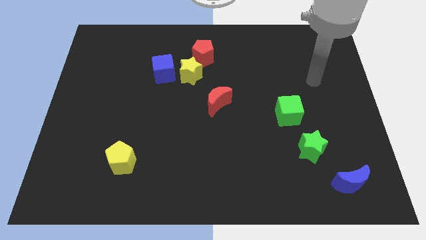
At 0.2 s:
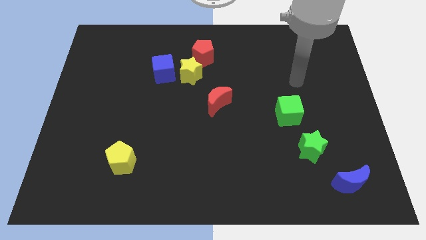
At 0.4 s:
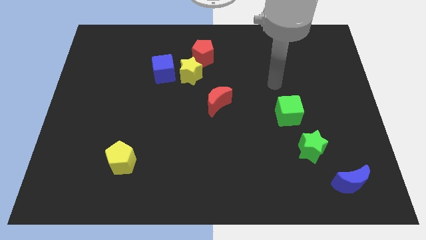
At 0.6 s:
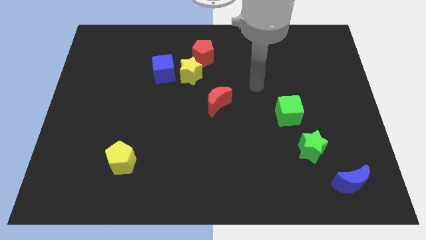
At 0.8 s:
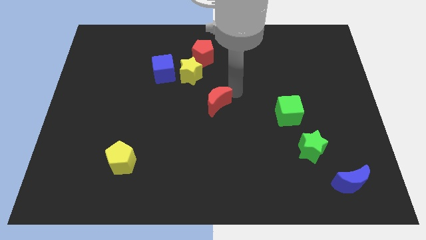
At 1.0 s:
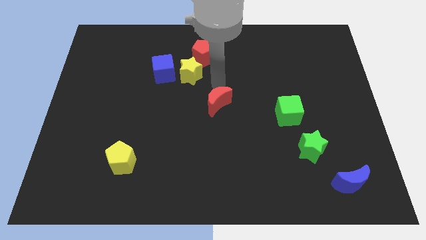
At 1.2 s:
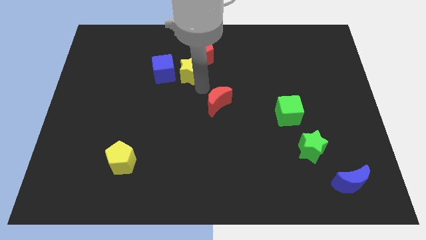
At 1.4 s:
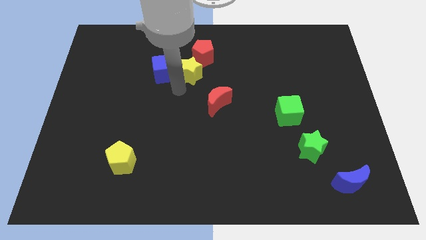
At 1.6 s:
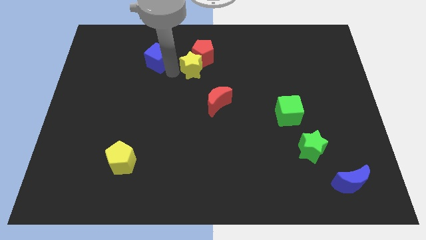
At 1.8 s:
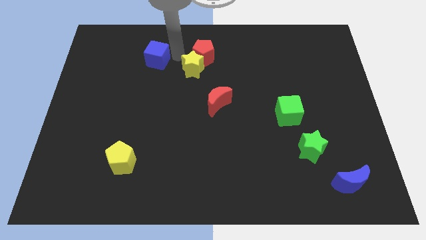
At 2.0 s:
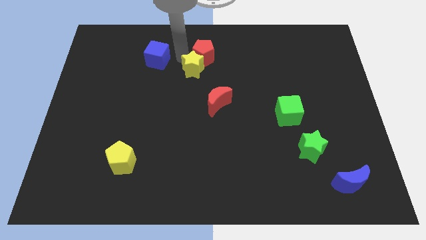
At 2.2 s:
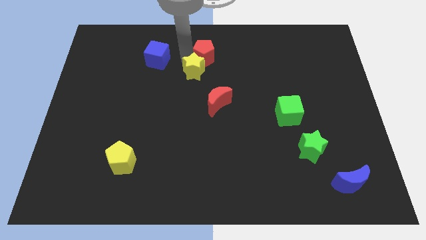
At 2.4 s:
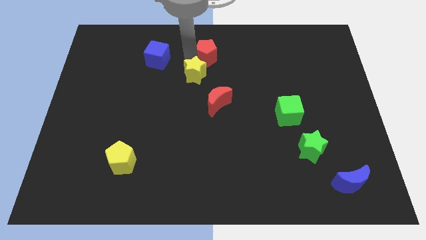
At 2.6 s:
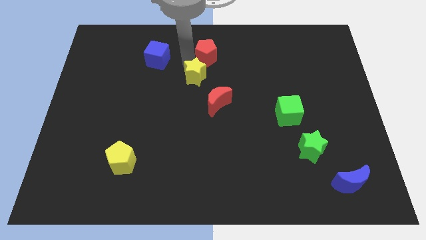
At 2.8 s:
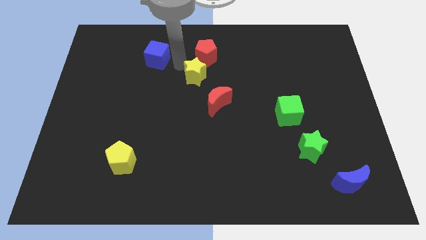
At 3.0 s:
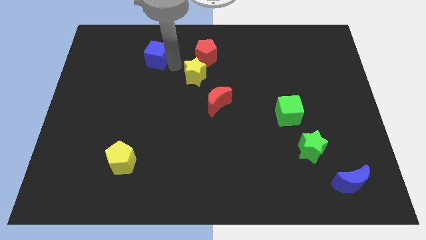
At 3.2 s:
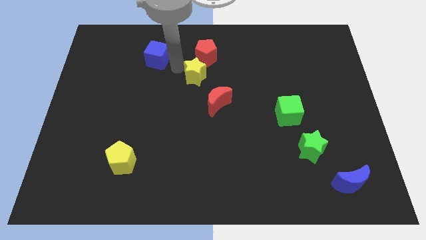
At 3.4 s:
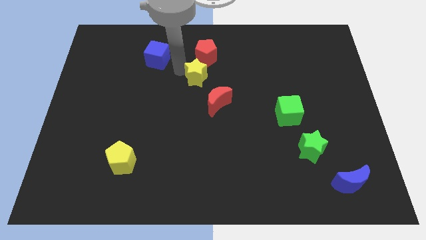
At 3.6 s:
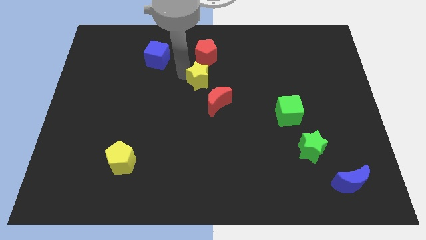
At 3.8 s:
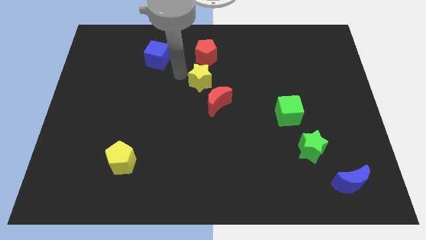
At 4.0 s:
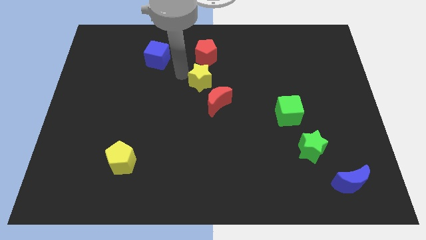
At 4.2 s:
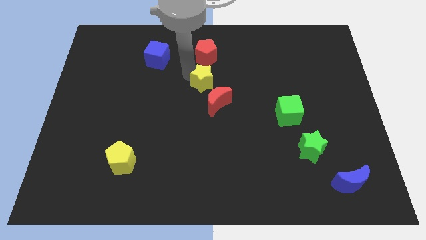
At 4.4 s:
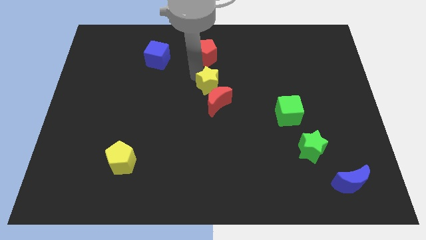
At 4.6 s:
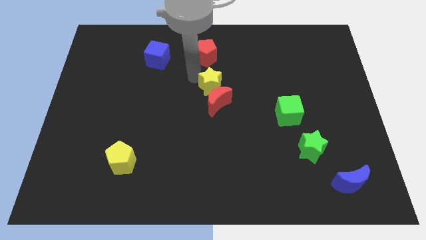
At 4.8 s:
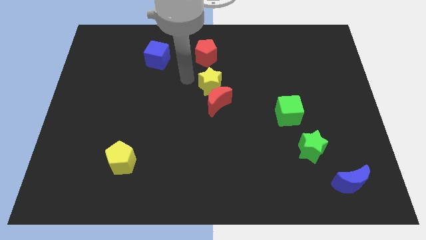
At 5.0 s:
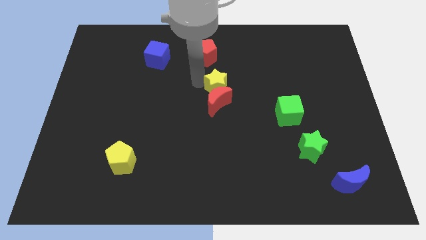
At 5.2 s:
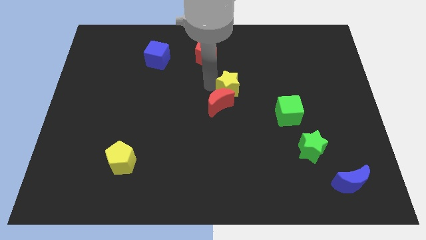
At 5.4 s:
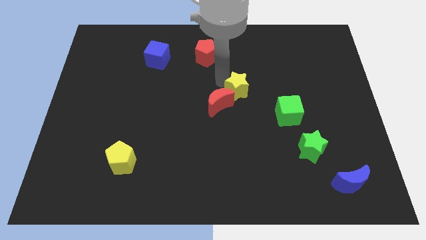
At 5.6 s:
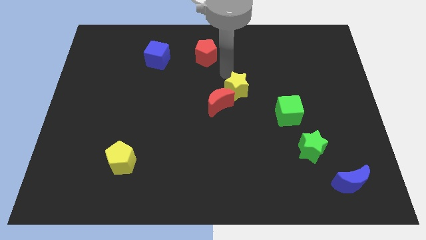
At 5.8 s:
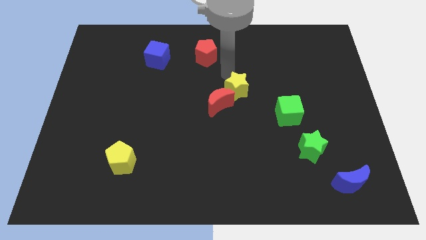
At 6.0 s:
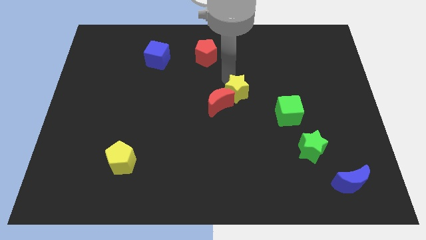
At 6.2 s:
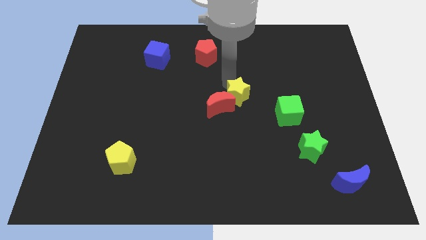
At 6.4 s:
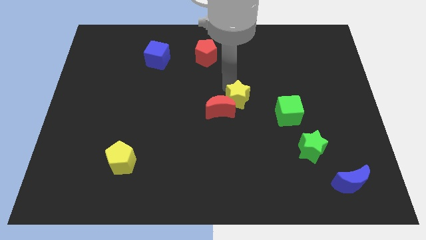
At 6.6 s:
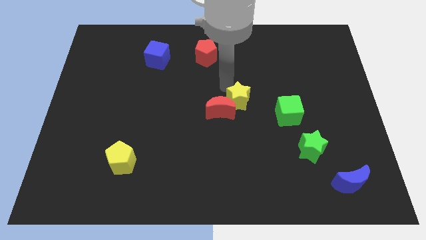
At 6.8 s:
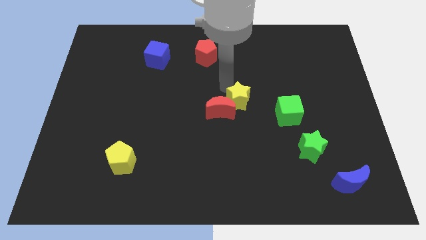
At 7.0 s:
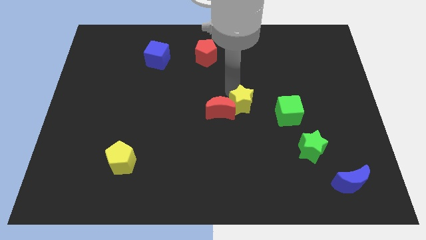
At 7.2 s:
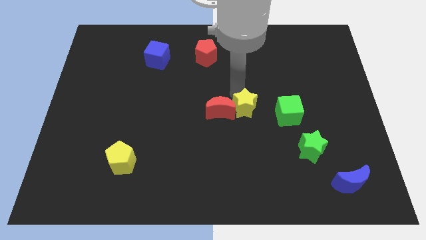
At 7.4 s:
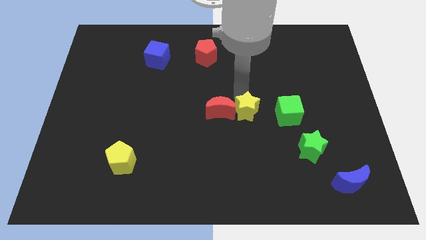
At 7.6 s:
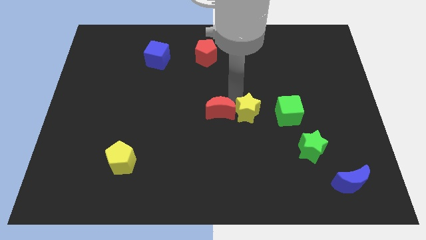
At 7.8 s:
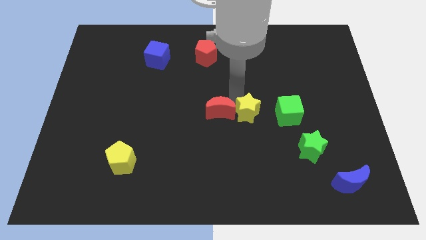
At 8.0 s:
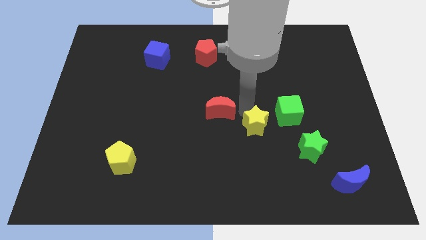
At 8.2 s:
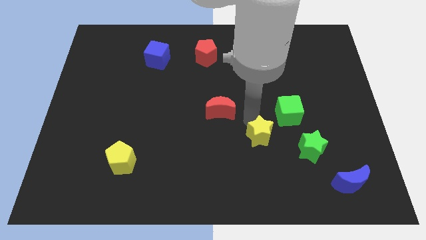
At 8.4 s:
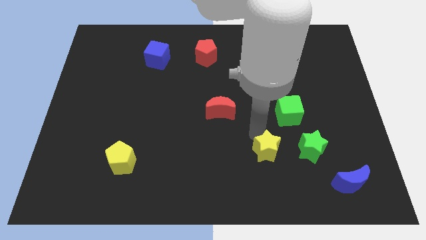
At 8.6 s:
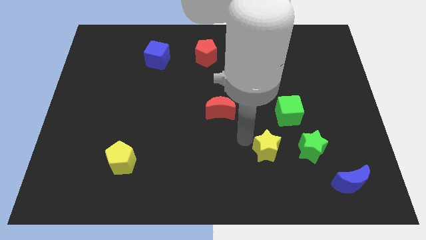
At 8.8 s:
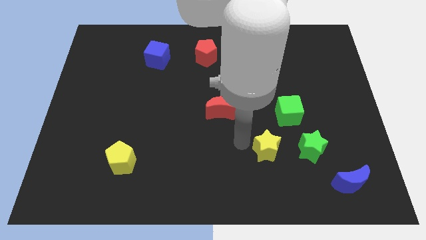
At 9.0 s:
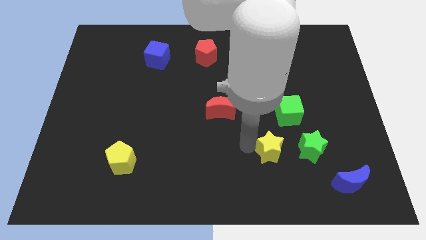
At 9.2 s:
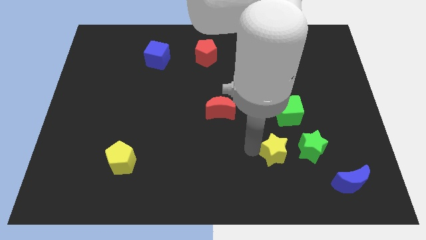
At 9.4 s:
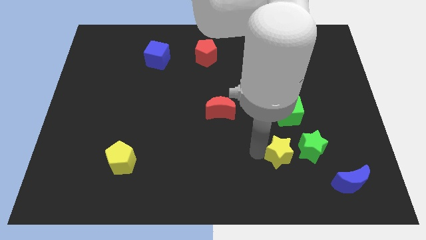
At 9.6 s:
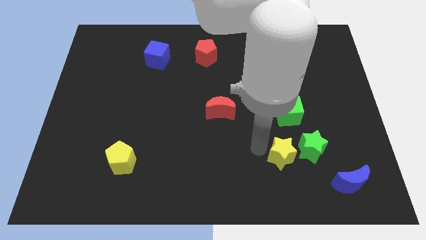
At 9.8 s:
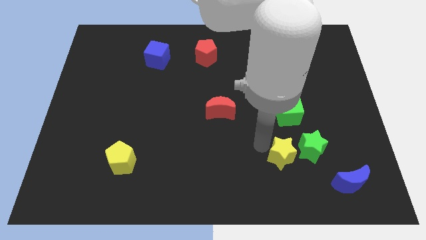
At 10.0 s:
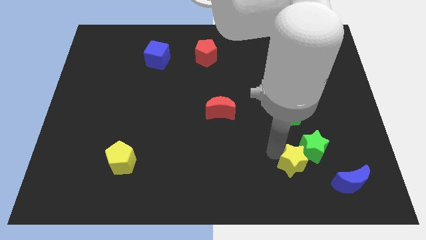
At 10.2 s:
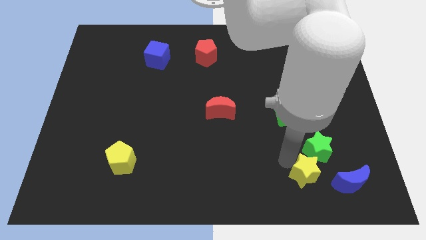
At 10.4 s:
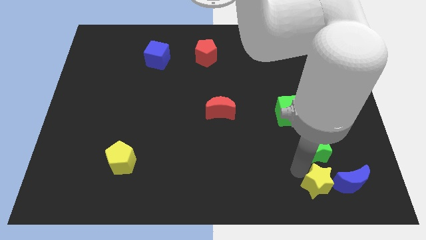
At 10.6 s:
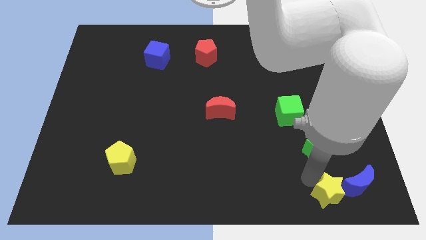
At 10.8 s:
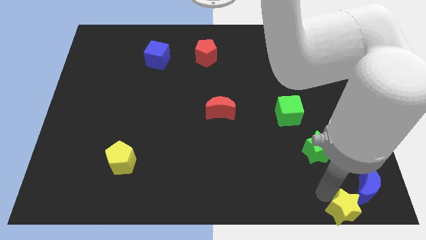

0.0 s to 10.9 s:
move the yellow star to the bottom right of the board

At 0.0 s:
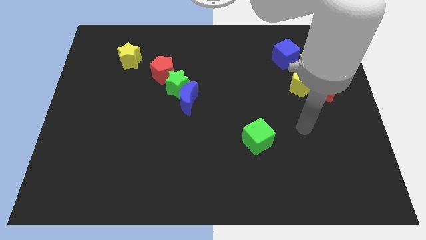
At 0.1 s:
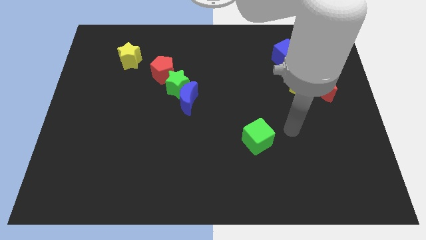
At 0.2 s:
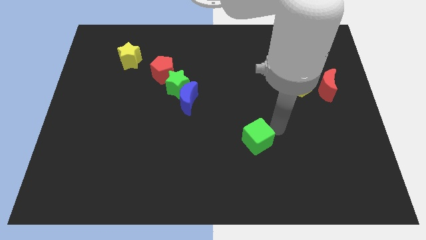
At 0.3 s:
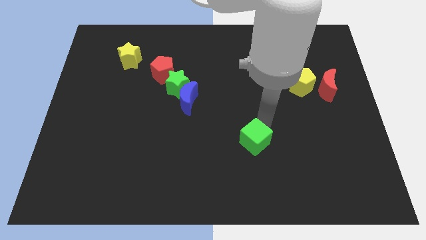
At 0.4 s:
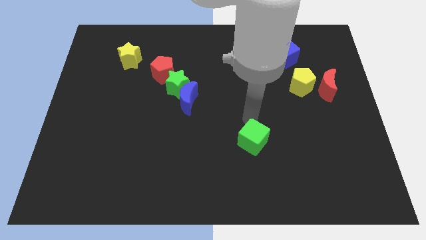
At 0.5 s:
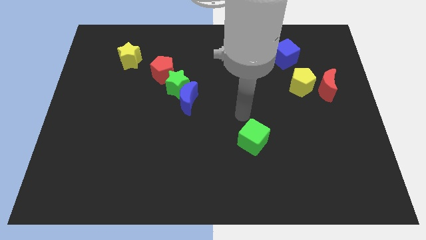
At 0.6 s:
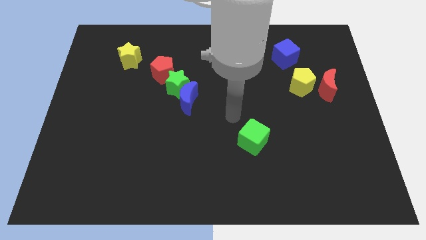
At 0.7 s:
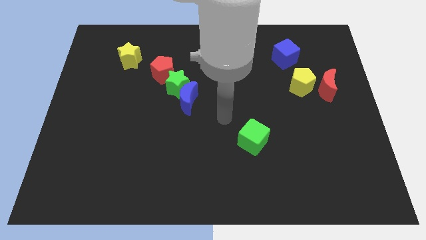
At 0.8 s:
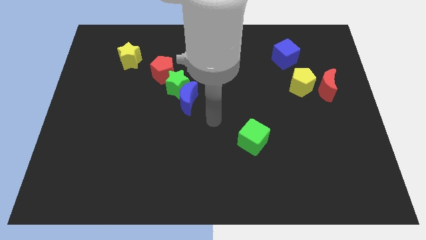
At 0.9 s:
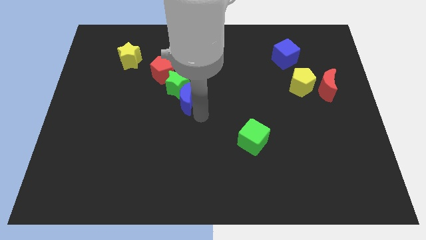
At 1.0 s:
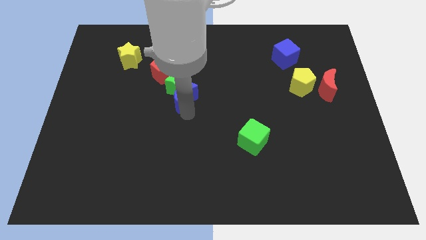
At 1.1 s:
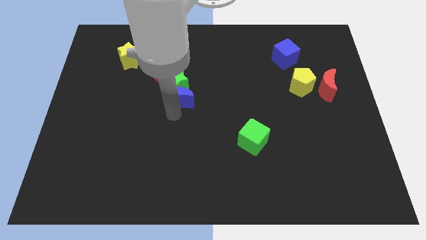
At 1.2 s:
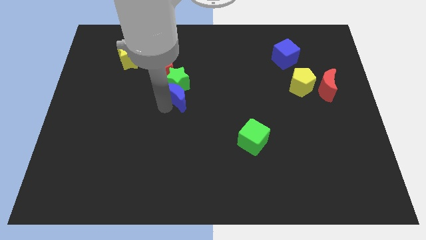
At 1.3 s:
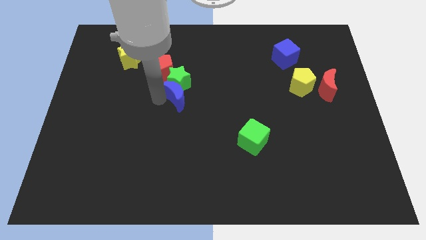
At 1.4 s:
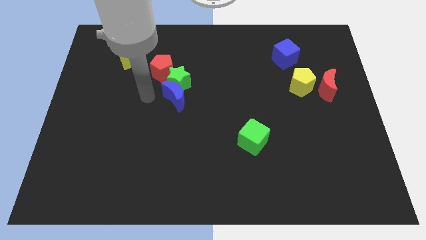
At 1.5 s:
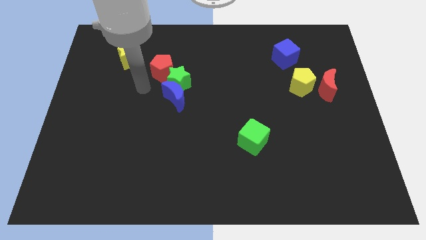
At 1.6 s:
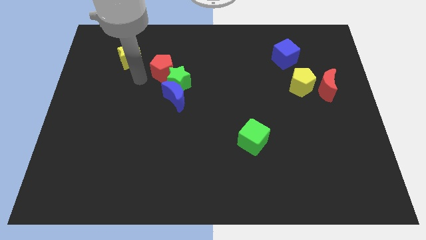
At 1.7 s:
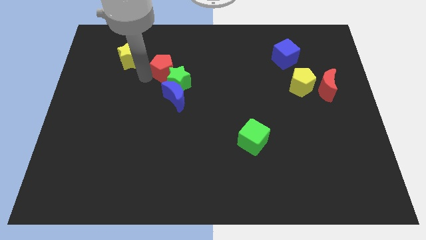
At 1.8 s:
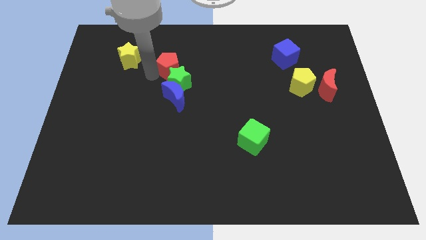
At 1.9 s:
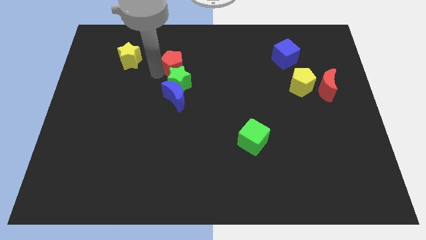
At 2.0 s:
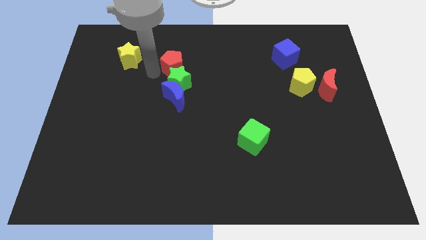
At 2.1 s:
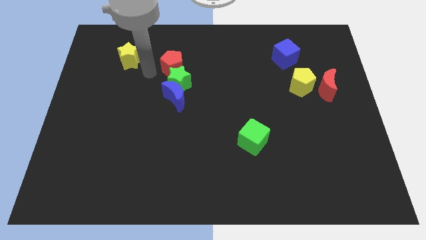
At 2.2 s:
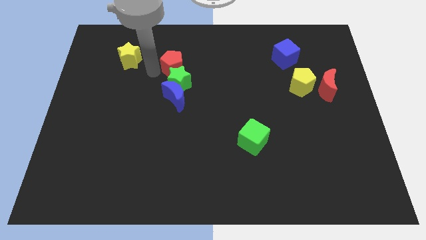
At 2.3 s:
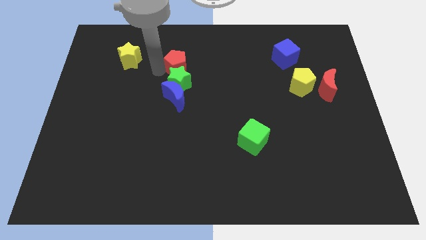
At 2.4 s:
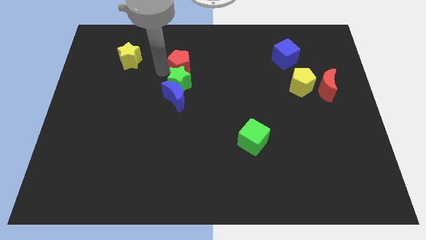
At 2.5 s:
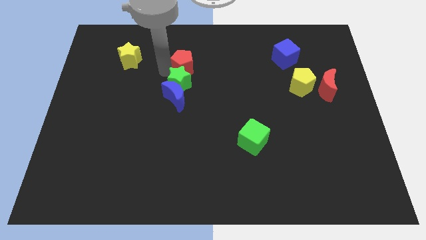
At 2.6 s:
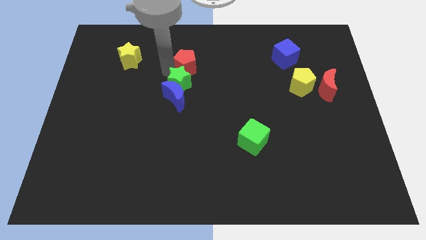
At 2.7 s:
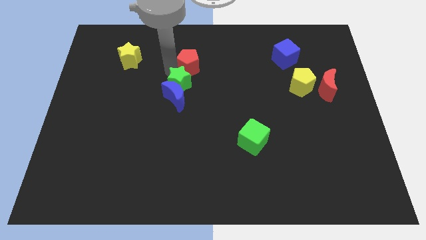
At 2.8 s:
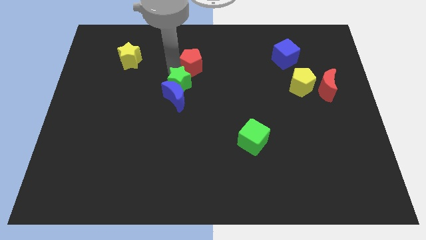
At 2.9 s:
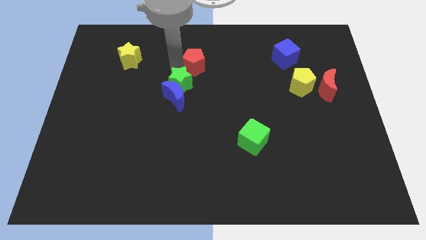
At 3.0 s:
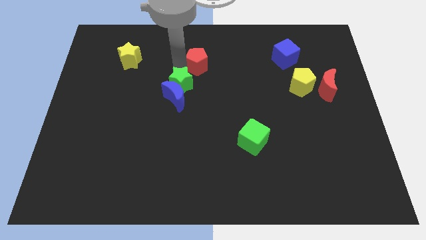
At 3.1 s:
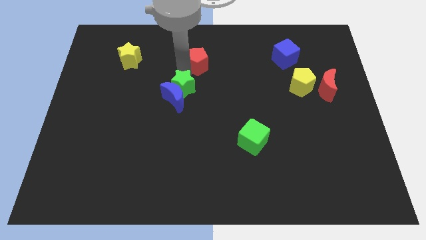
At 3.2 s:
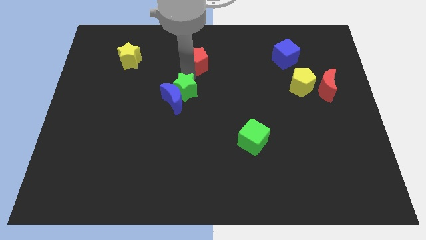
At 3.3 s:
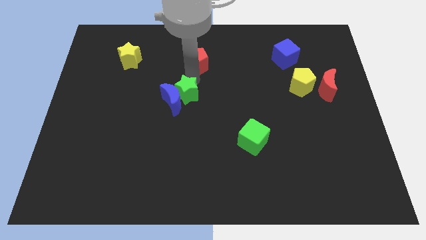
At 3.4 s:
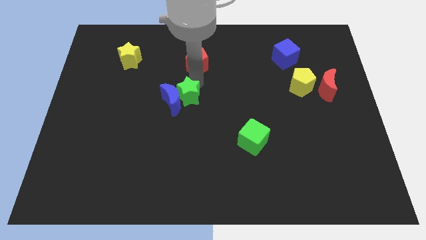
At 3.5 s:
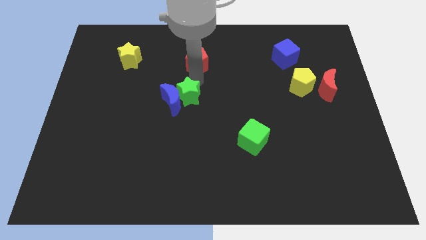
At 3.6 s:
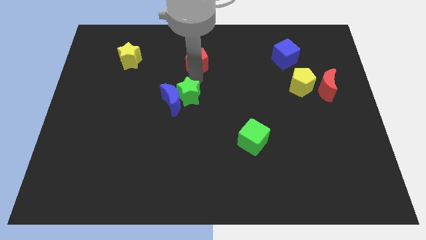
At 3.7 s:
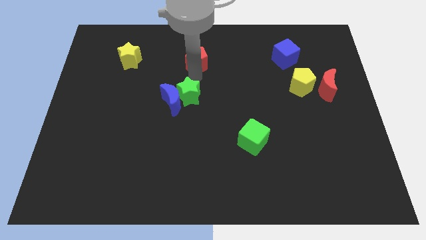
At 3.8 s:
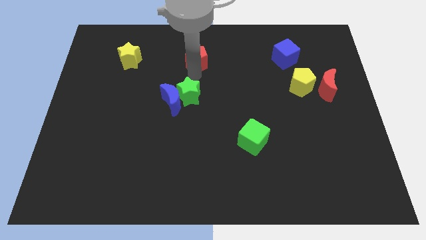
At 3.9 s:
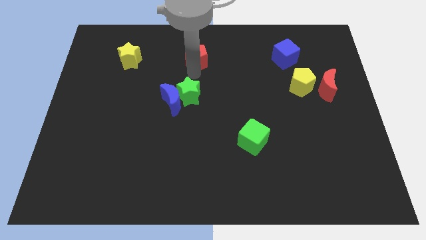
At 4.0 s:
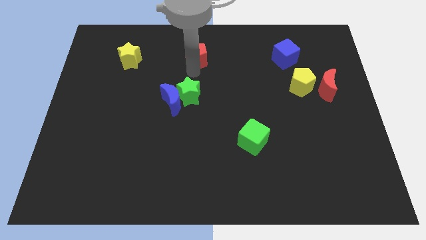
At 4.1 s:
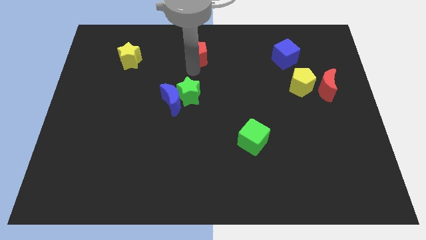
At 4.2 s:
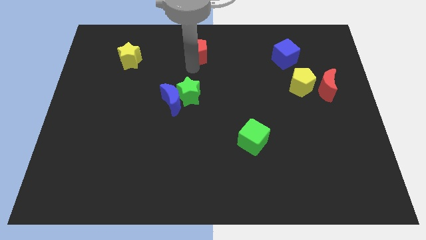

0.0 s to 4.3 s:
put the red pentagon to the towards your base
